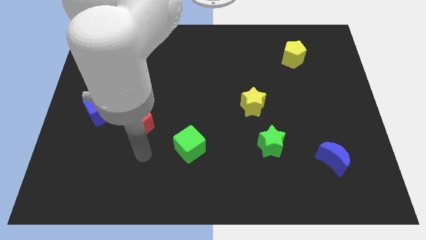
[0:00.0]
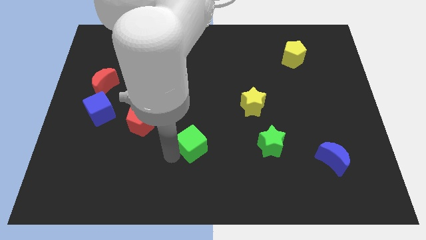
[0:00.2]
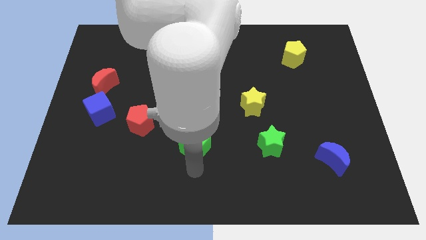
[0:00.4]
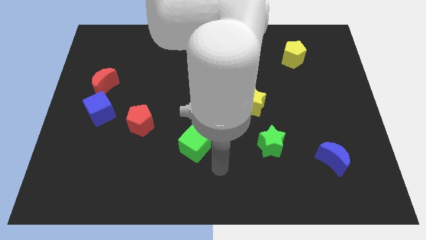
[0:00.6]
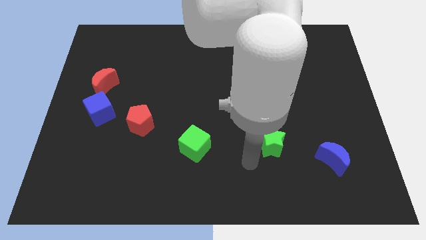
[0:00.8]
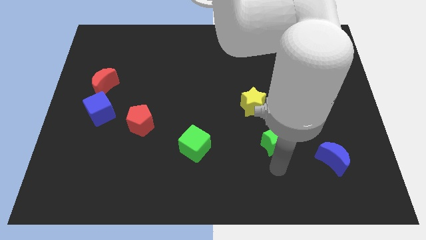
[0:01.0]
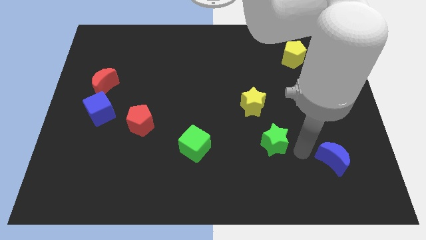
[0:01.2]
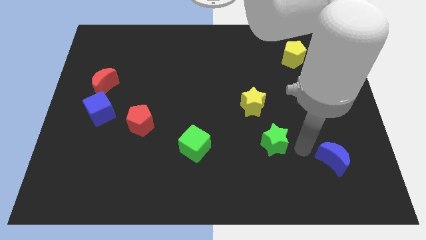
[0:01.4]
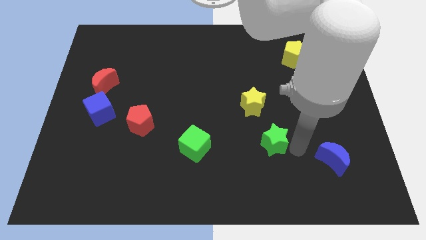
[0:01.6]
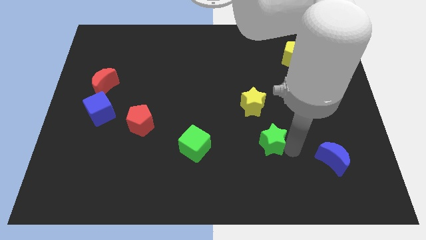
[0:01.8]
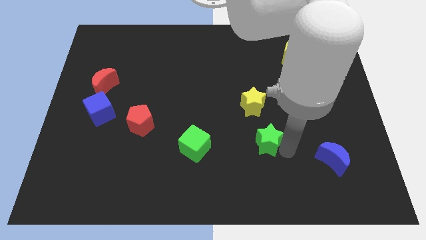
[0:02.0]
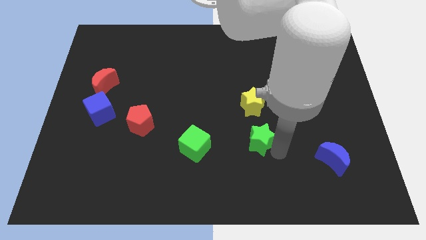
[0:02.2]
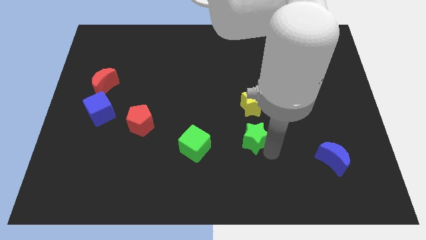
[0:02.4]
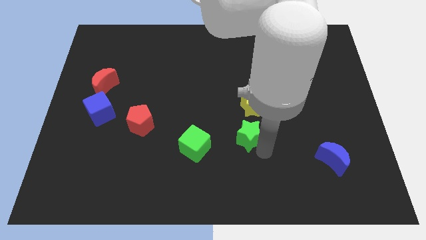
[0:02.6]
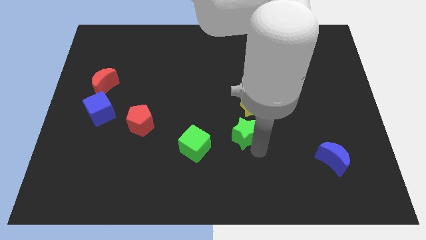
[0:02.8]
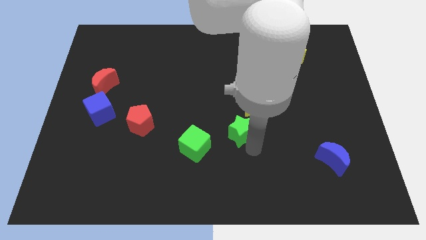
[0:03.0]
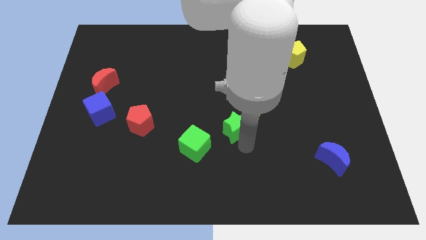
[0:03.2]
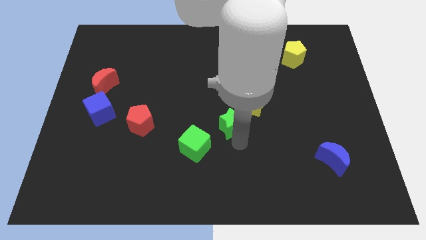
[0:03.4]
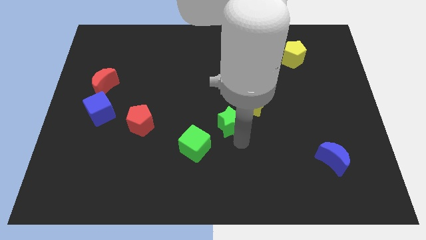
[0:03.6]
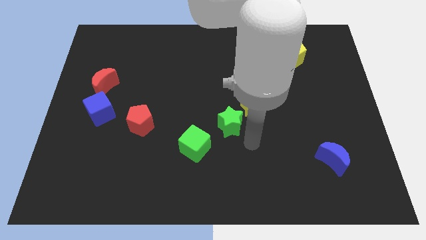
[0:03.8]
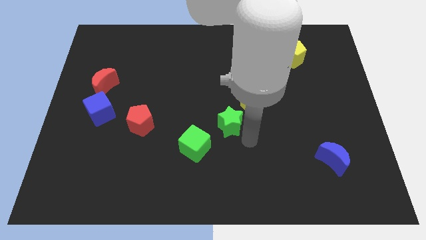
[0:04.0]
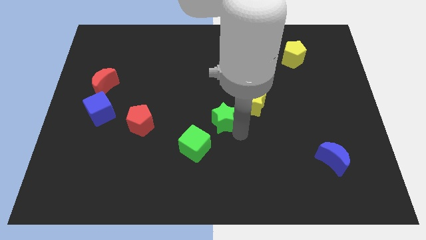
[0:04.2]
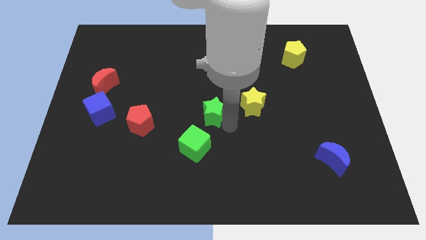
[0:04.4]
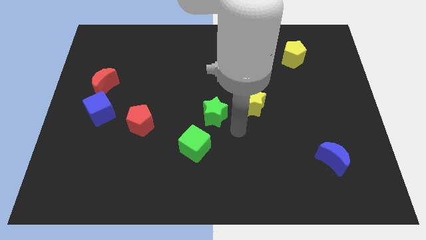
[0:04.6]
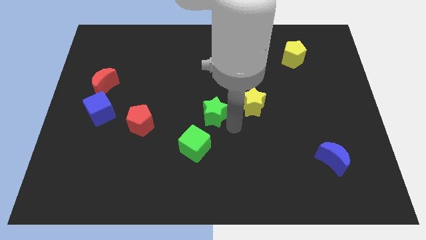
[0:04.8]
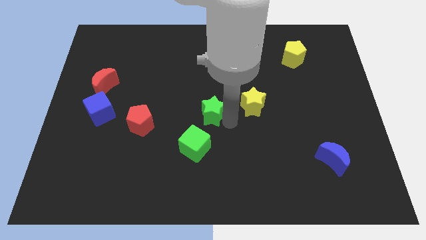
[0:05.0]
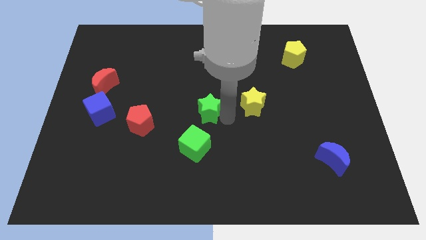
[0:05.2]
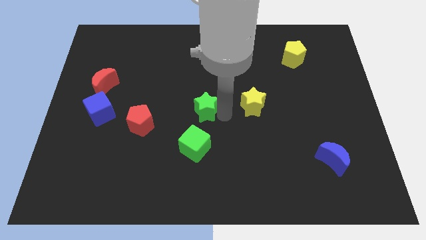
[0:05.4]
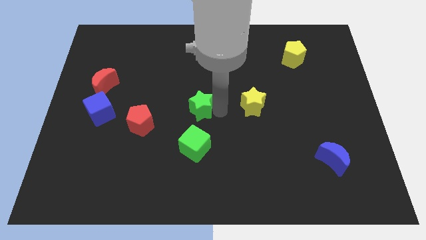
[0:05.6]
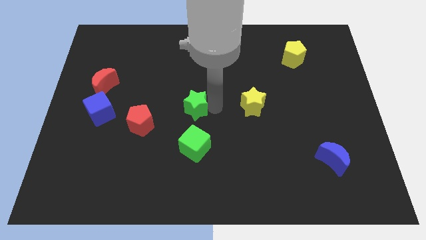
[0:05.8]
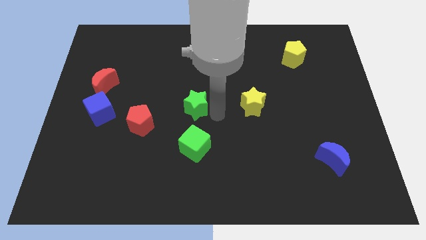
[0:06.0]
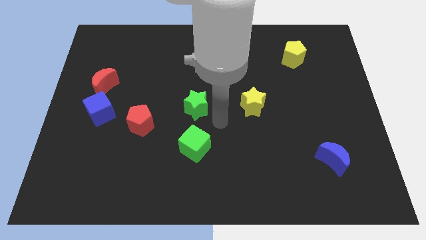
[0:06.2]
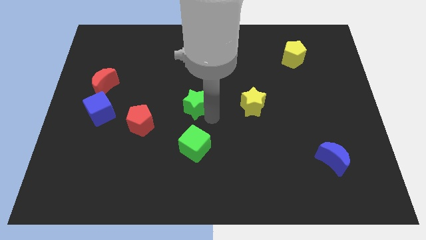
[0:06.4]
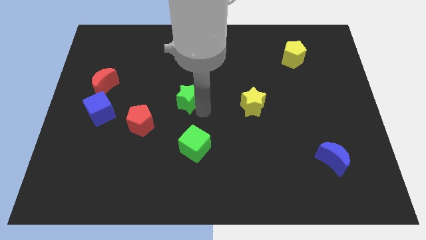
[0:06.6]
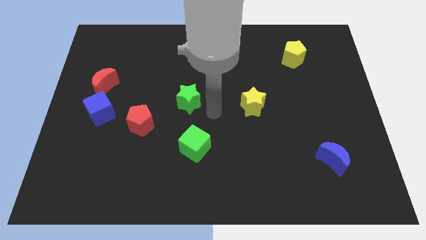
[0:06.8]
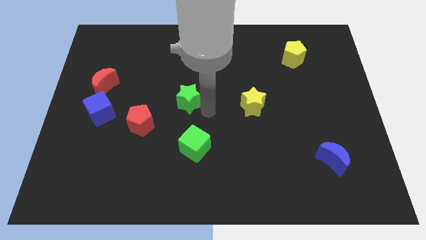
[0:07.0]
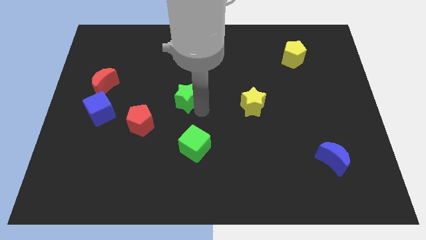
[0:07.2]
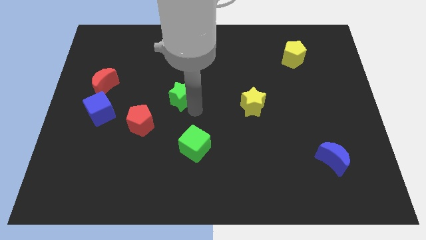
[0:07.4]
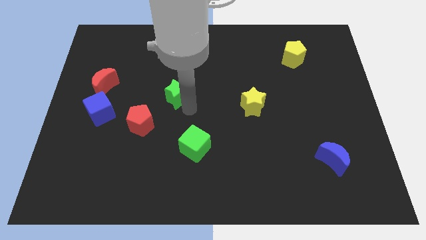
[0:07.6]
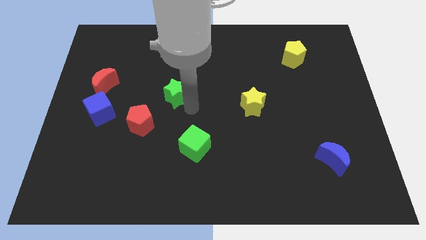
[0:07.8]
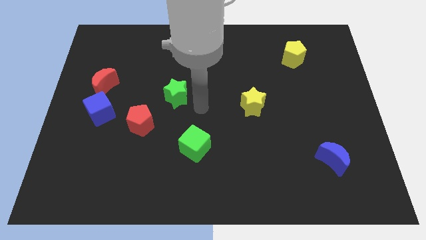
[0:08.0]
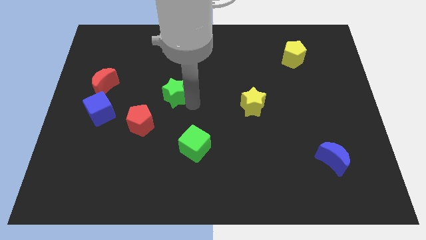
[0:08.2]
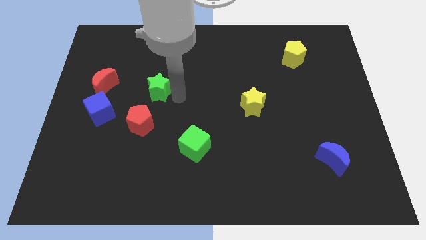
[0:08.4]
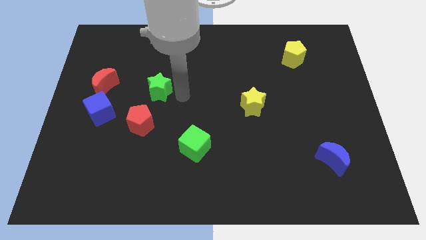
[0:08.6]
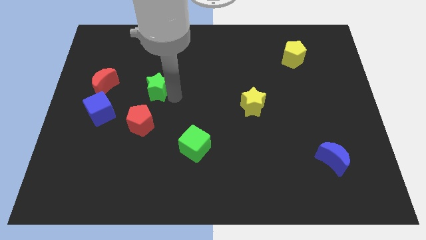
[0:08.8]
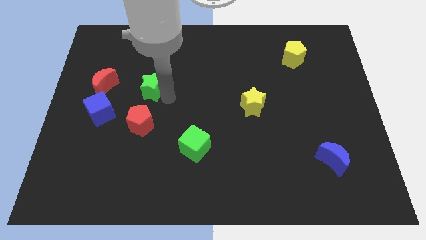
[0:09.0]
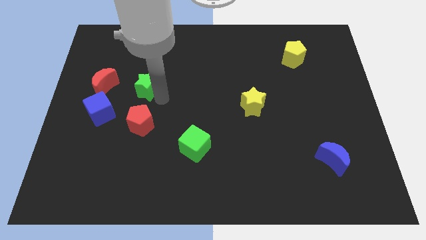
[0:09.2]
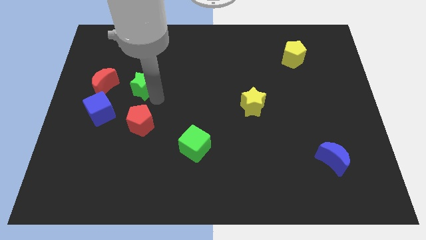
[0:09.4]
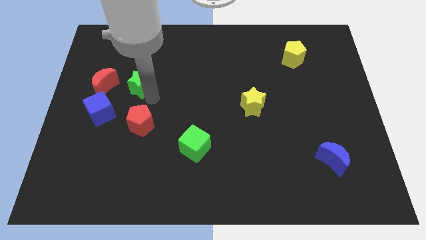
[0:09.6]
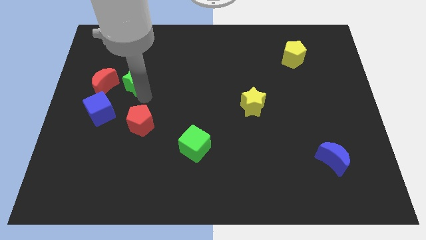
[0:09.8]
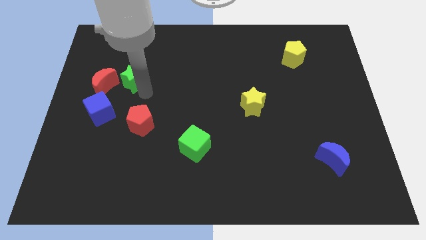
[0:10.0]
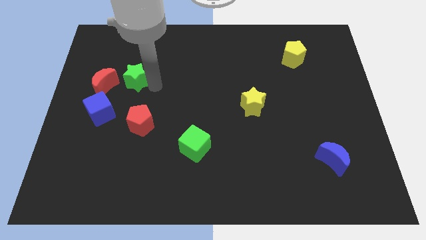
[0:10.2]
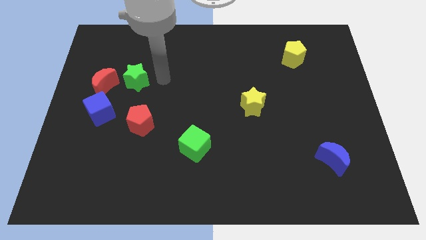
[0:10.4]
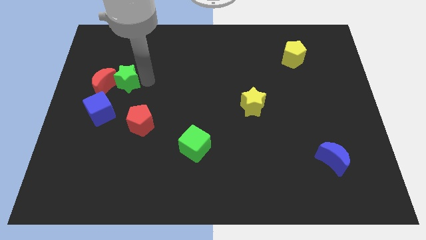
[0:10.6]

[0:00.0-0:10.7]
slide the green star close to the red moon

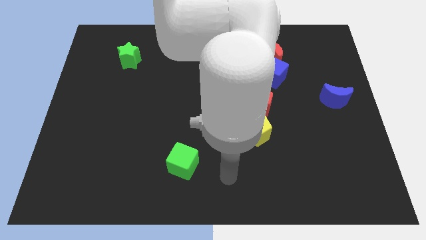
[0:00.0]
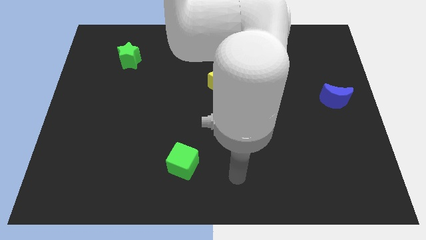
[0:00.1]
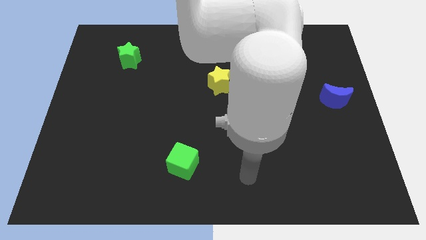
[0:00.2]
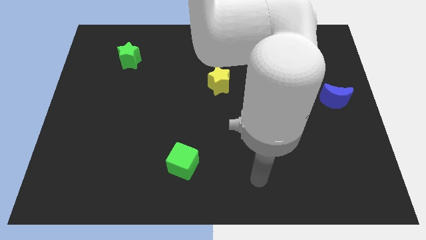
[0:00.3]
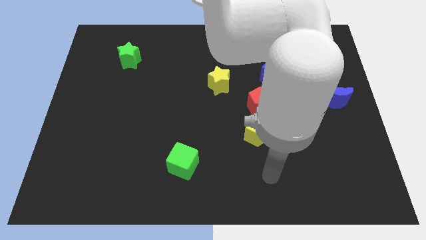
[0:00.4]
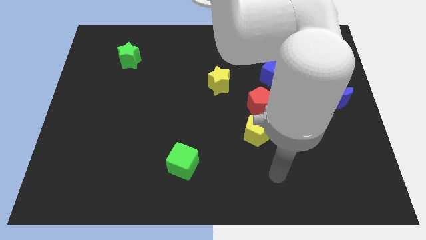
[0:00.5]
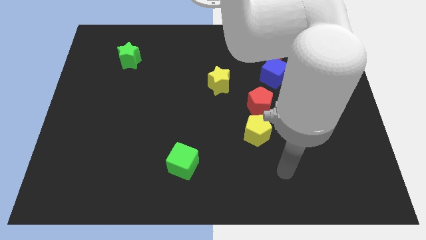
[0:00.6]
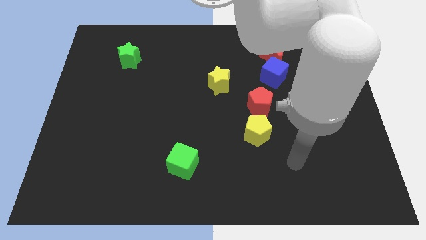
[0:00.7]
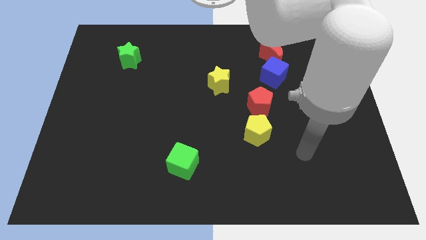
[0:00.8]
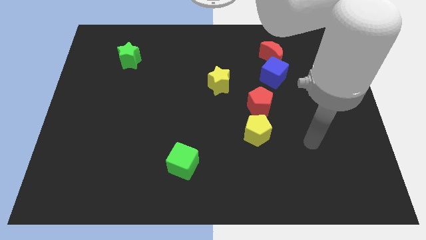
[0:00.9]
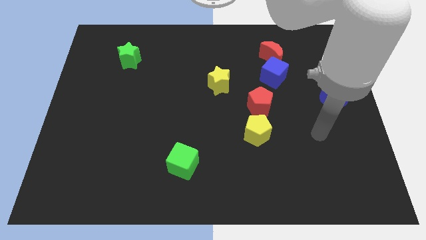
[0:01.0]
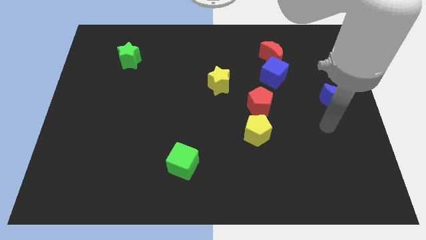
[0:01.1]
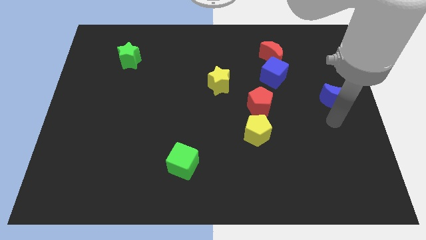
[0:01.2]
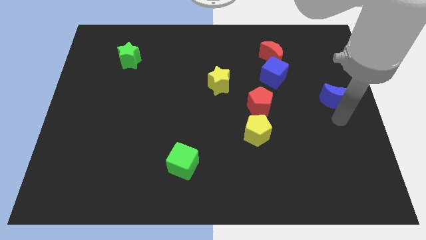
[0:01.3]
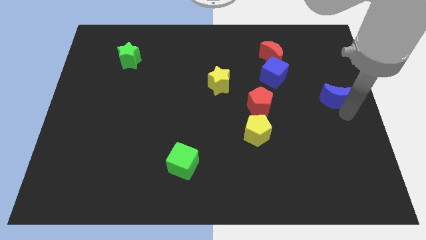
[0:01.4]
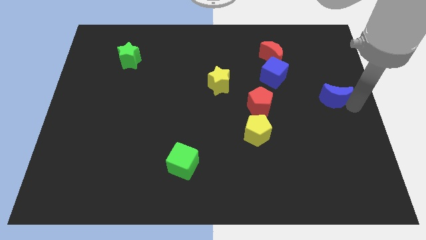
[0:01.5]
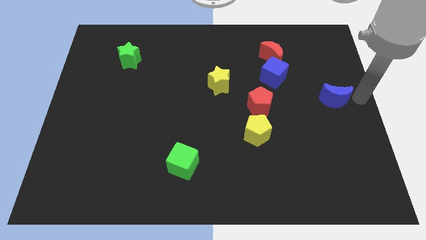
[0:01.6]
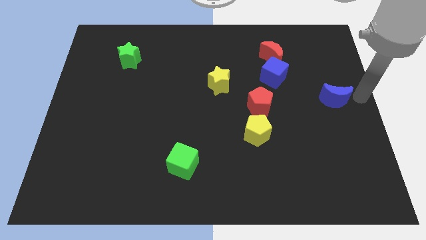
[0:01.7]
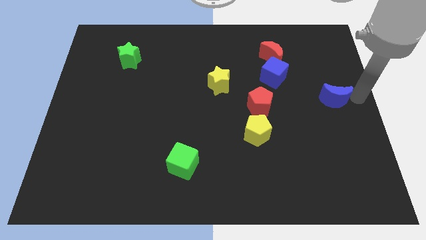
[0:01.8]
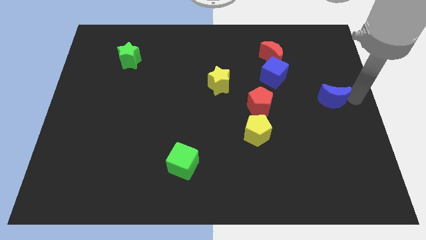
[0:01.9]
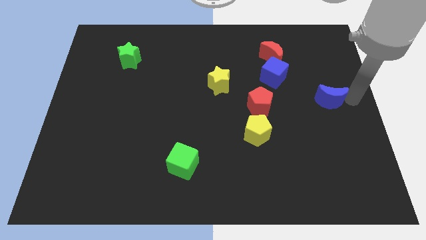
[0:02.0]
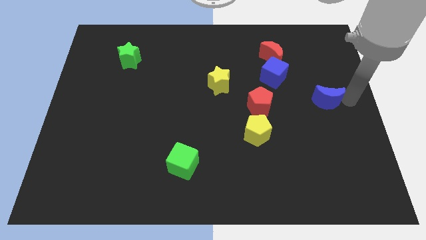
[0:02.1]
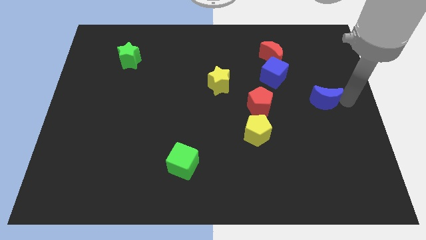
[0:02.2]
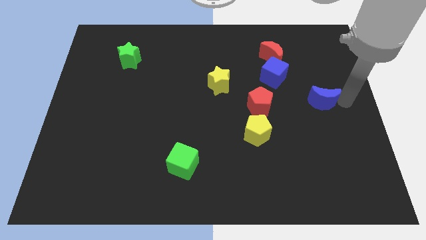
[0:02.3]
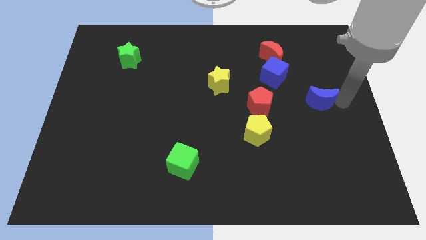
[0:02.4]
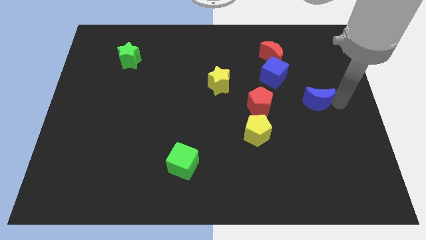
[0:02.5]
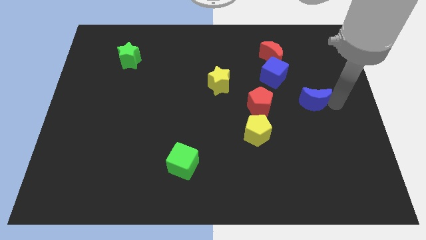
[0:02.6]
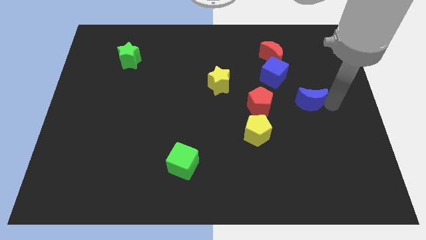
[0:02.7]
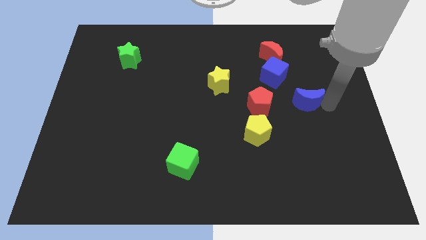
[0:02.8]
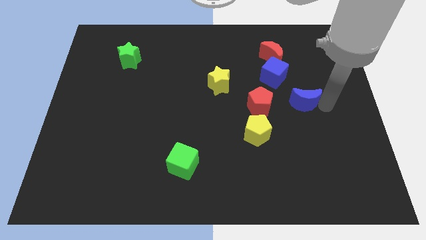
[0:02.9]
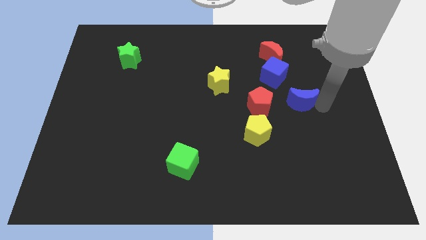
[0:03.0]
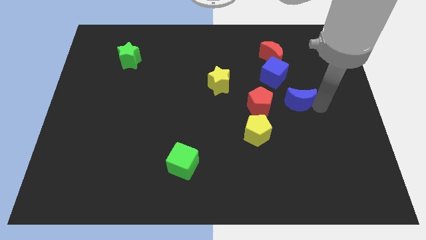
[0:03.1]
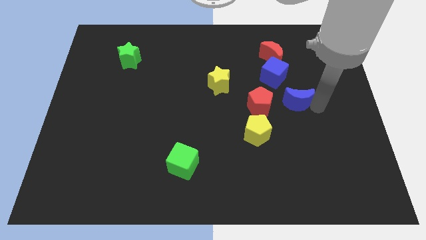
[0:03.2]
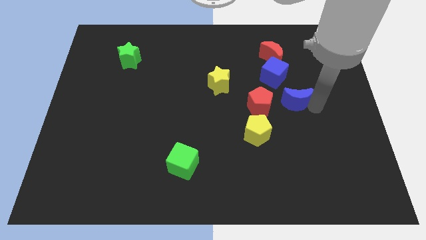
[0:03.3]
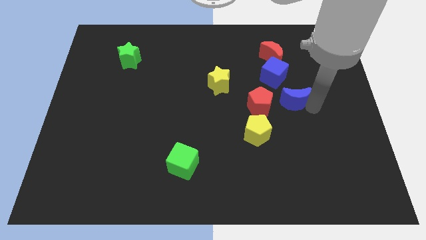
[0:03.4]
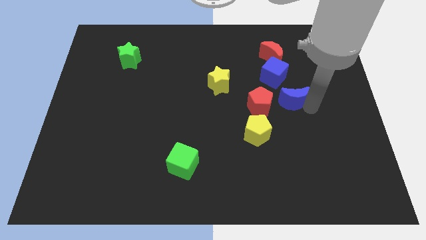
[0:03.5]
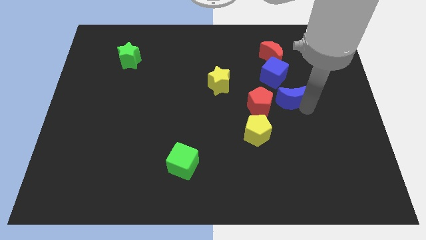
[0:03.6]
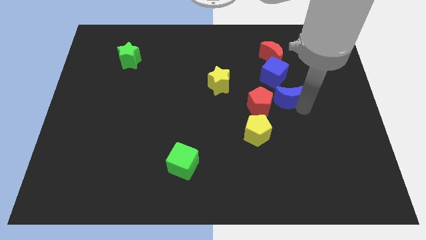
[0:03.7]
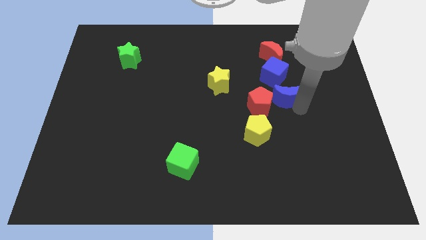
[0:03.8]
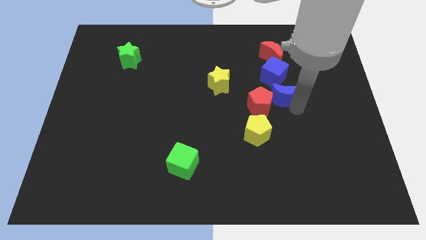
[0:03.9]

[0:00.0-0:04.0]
slide the blue moon next to the red pentagon
